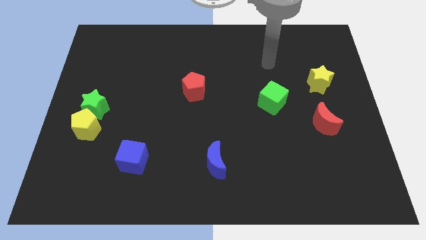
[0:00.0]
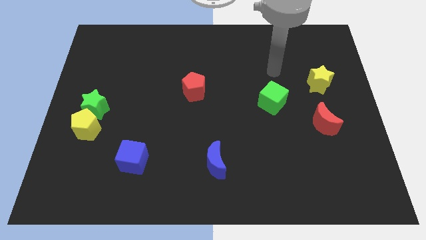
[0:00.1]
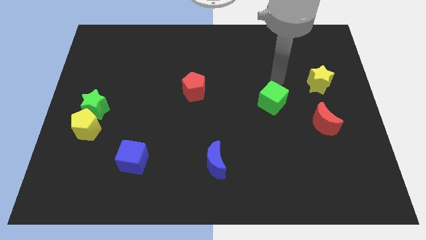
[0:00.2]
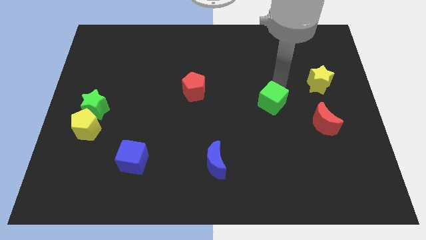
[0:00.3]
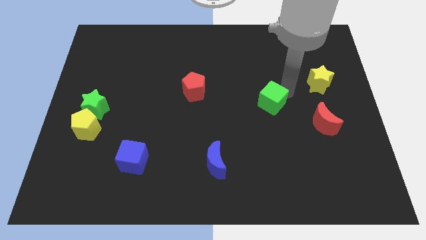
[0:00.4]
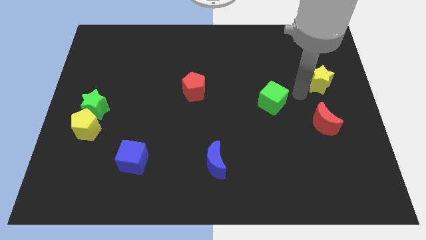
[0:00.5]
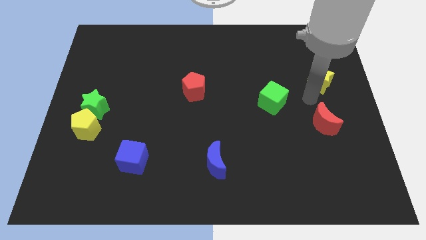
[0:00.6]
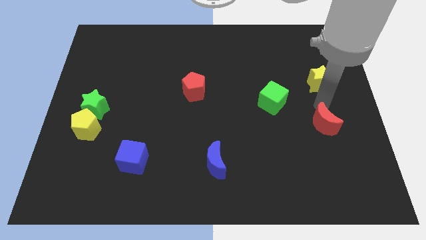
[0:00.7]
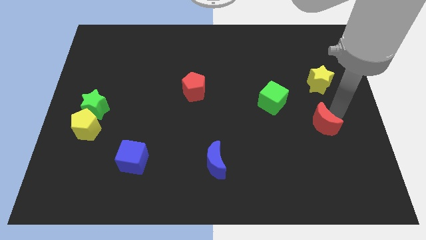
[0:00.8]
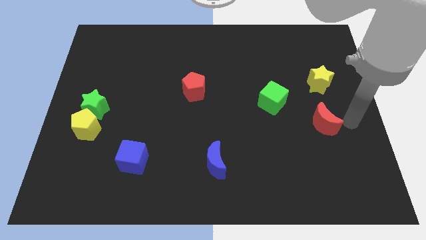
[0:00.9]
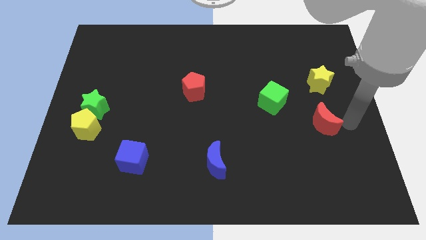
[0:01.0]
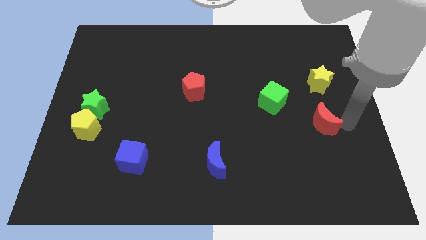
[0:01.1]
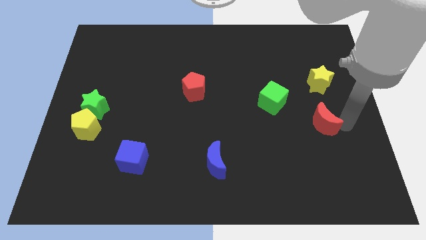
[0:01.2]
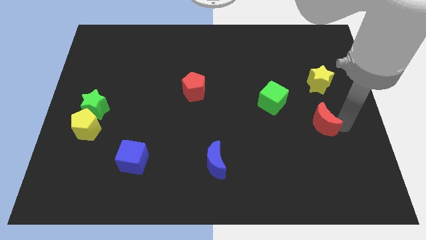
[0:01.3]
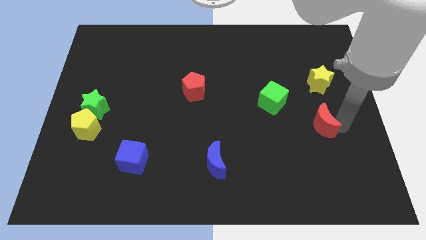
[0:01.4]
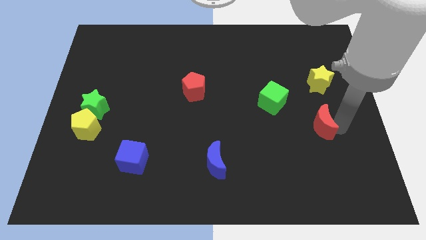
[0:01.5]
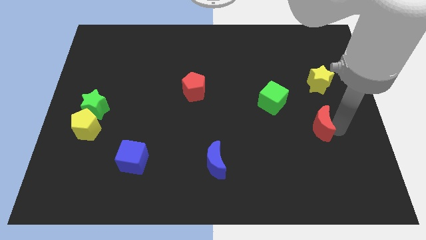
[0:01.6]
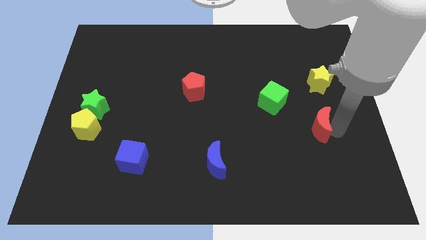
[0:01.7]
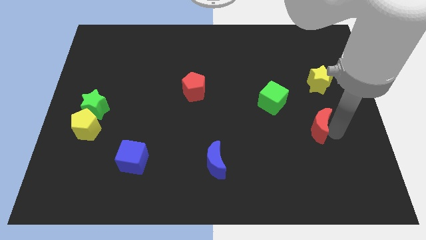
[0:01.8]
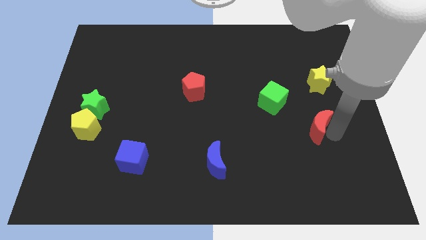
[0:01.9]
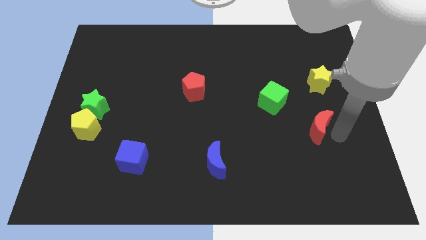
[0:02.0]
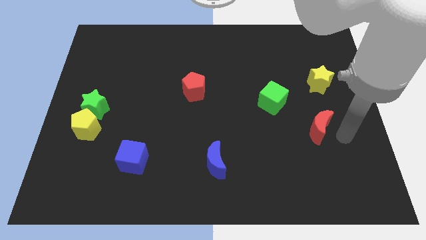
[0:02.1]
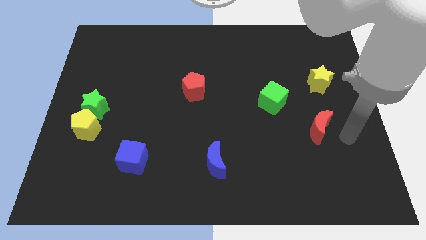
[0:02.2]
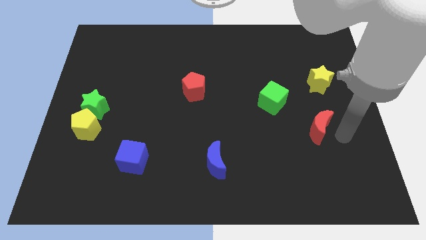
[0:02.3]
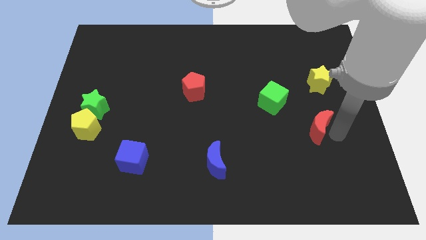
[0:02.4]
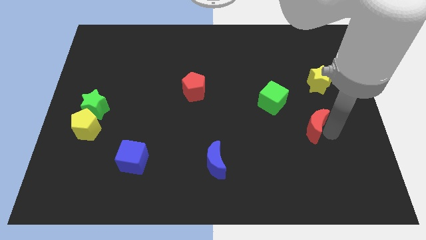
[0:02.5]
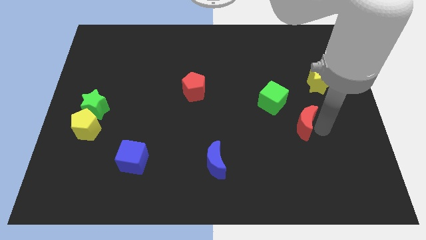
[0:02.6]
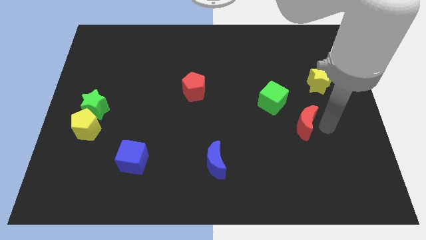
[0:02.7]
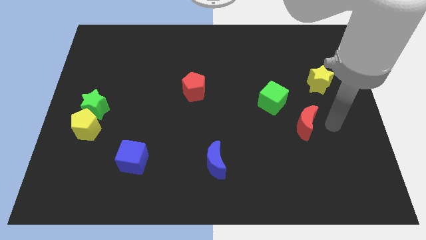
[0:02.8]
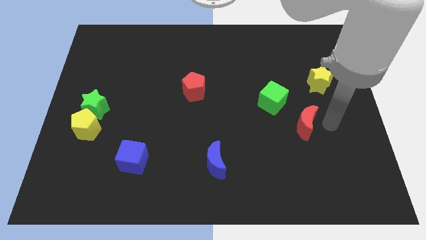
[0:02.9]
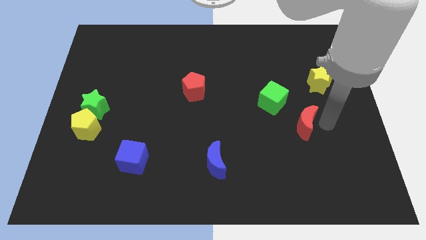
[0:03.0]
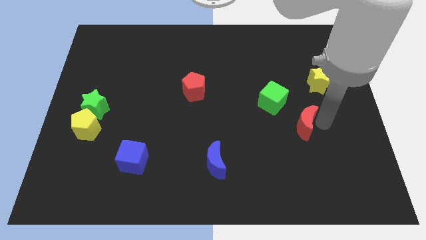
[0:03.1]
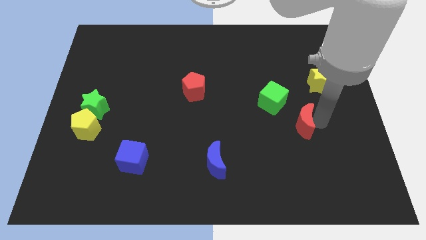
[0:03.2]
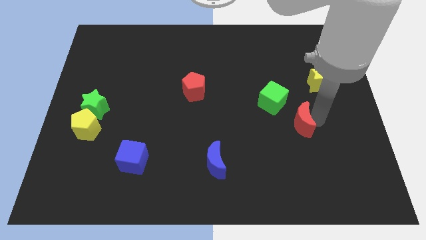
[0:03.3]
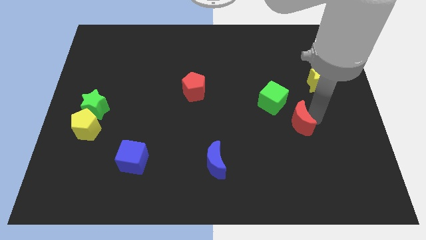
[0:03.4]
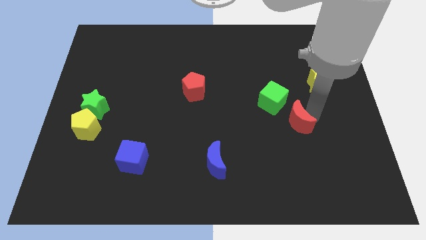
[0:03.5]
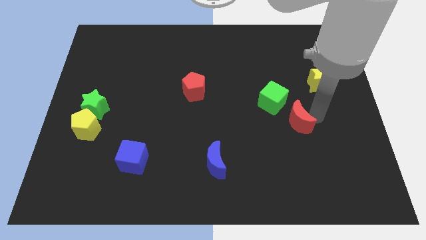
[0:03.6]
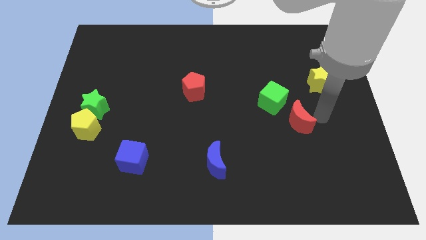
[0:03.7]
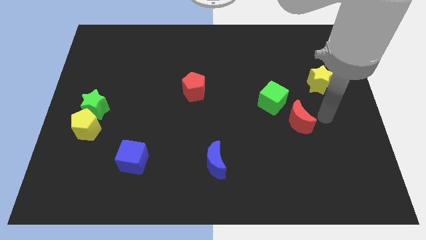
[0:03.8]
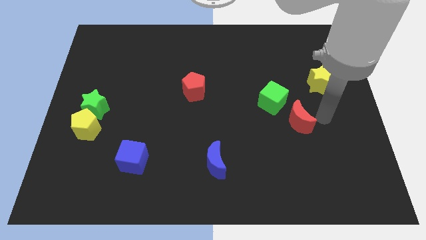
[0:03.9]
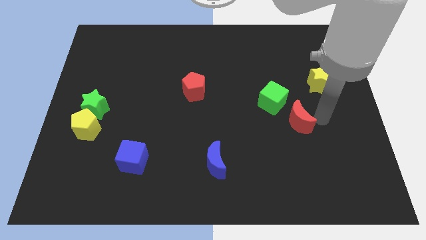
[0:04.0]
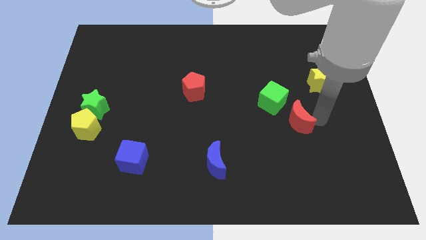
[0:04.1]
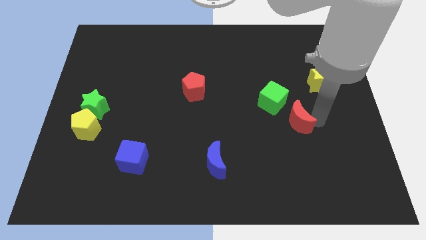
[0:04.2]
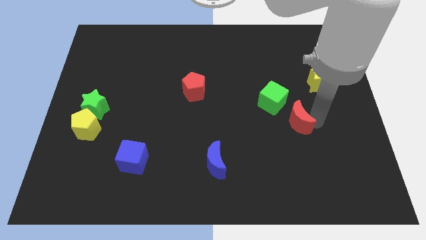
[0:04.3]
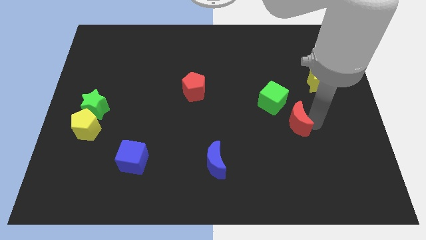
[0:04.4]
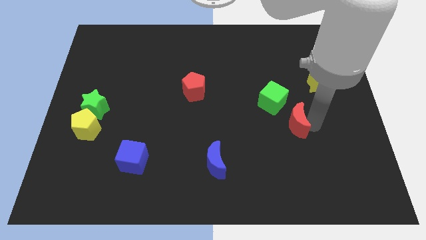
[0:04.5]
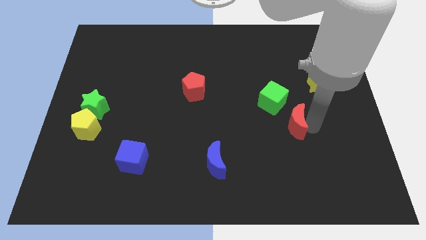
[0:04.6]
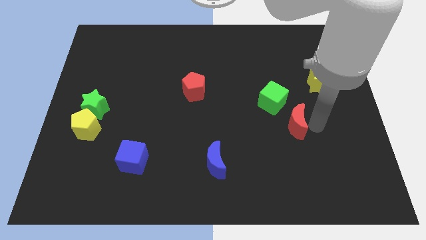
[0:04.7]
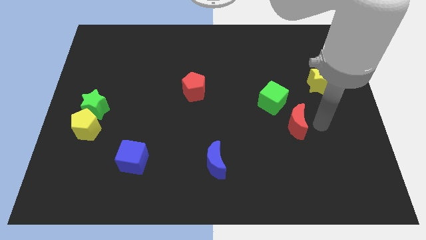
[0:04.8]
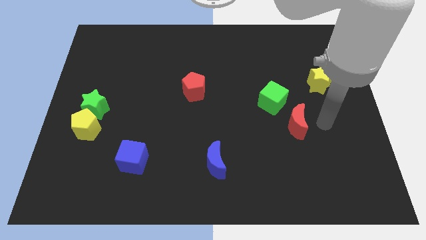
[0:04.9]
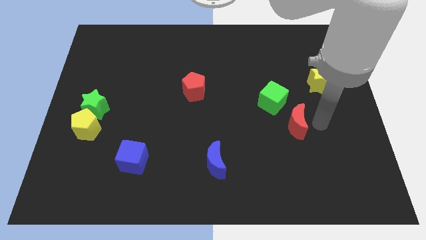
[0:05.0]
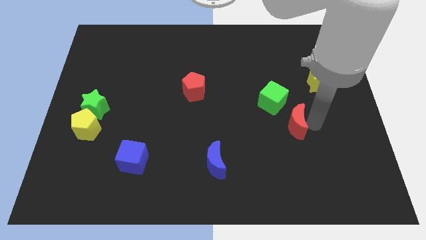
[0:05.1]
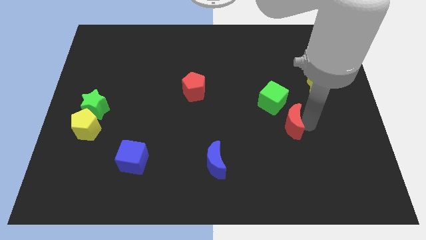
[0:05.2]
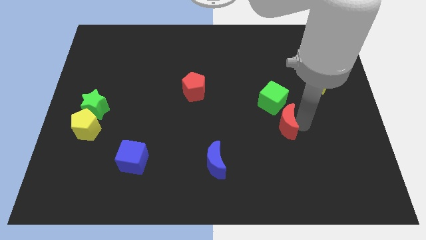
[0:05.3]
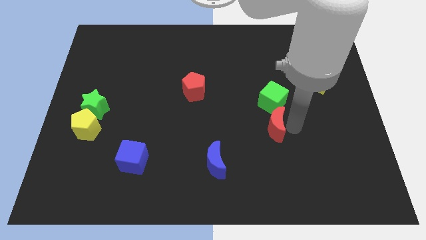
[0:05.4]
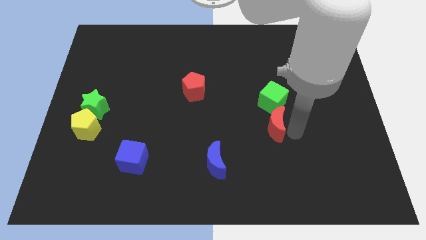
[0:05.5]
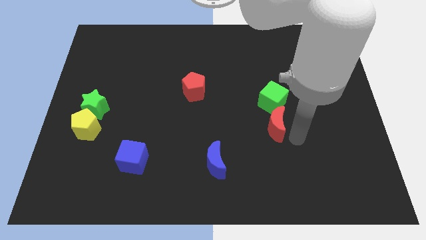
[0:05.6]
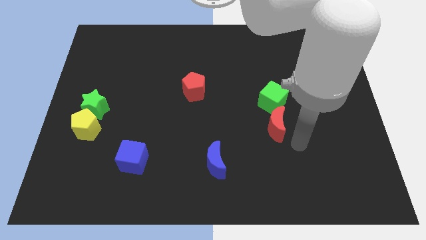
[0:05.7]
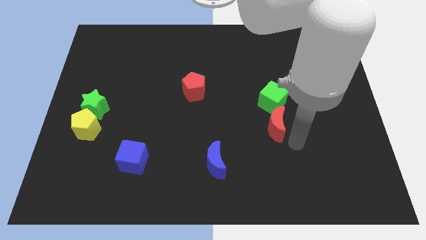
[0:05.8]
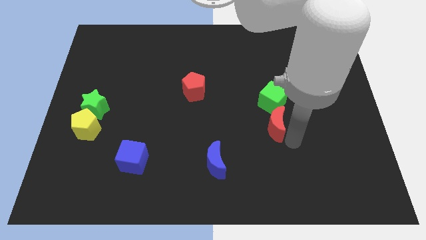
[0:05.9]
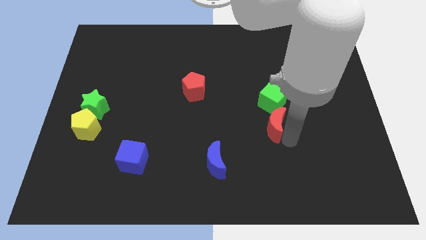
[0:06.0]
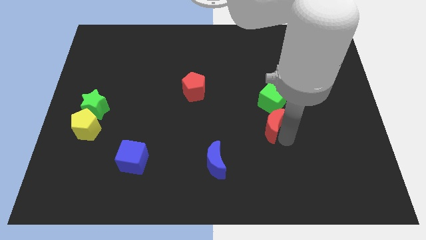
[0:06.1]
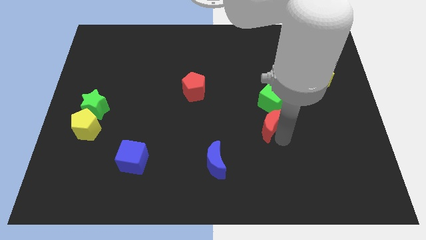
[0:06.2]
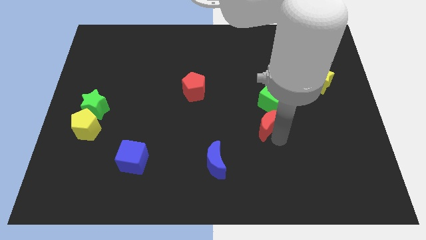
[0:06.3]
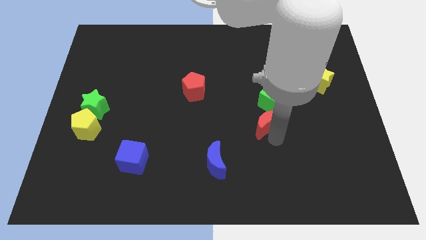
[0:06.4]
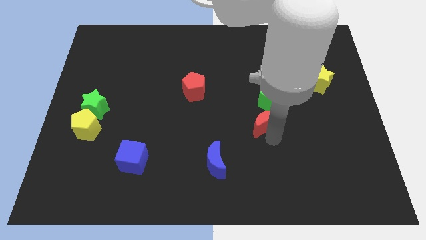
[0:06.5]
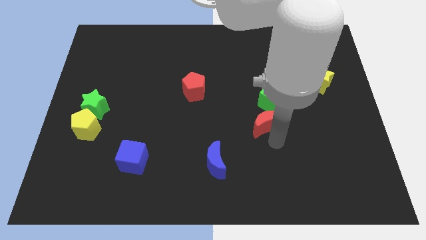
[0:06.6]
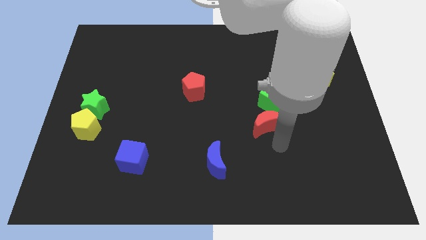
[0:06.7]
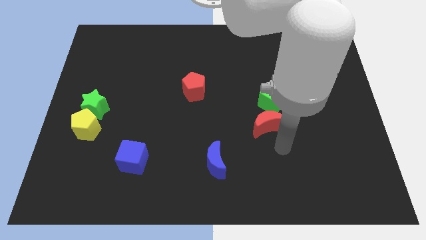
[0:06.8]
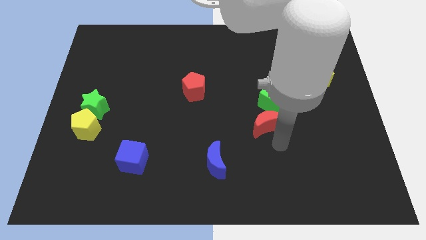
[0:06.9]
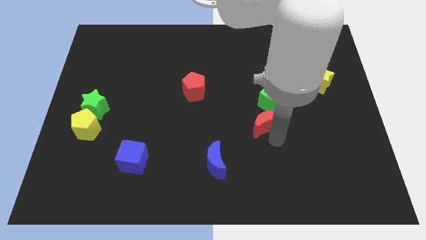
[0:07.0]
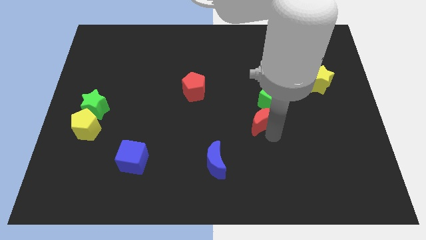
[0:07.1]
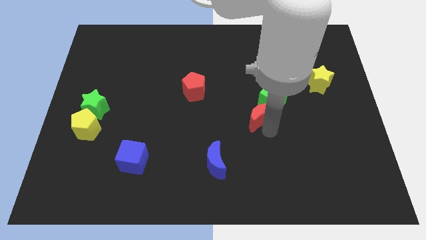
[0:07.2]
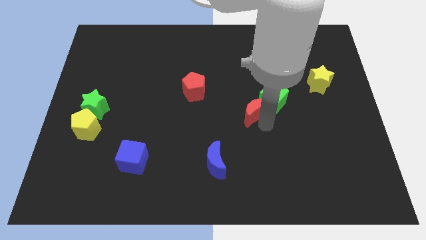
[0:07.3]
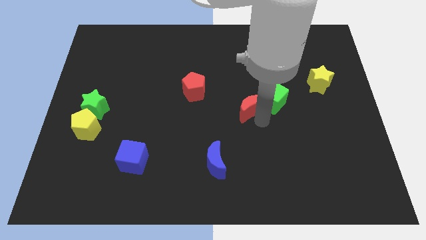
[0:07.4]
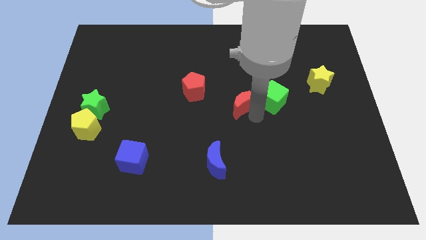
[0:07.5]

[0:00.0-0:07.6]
put the red moon to the right side of the red pentagon
